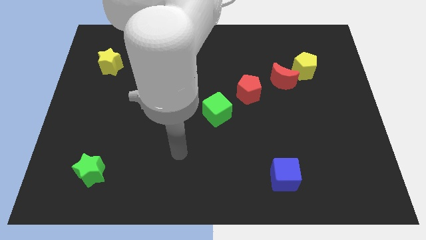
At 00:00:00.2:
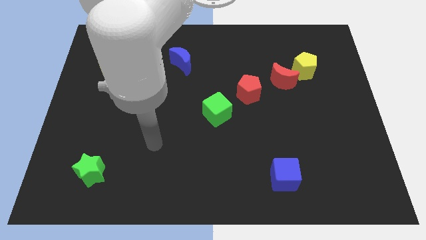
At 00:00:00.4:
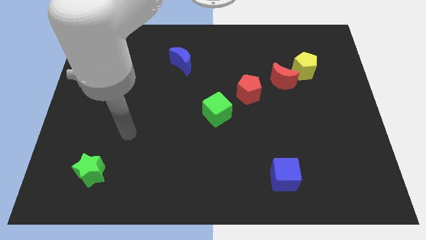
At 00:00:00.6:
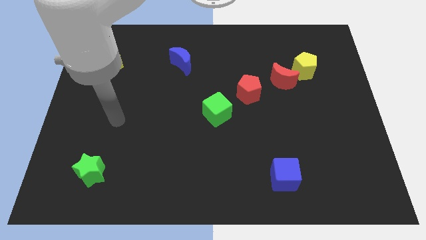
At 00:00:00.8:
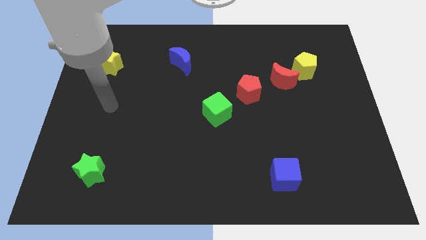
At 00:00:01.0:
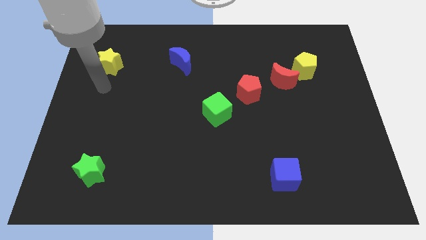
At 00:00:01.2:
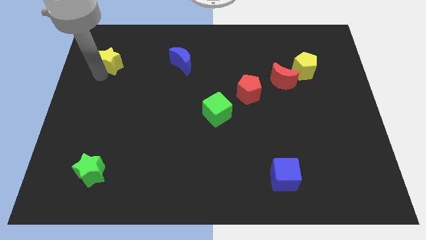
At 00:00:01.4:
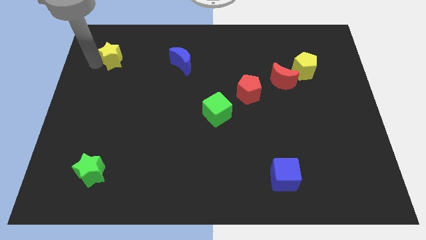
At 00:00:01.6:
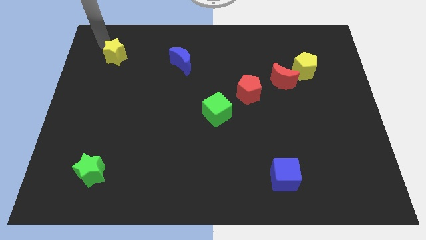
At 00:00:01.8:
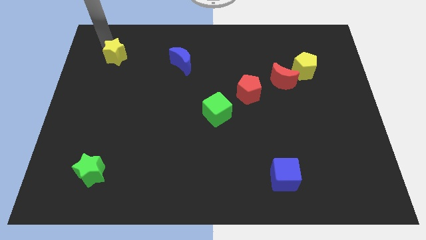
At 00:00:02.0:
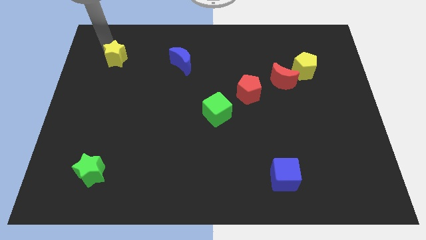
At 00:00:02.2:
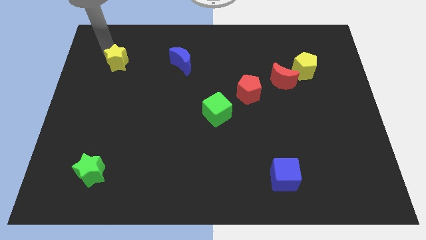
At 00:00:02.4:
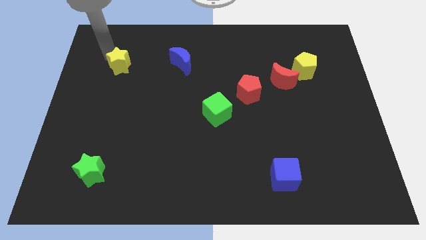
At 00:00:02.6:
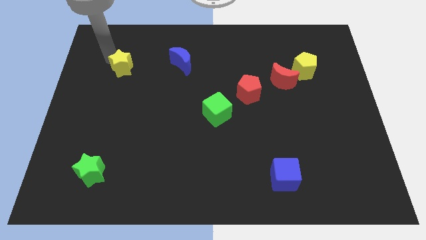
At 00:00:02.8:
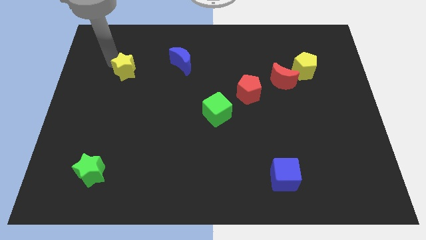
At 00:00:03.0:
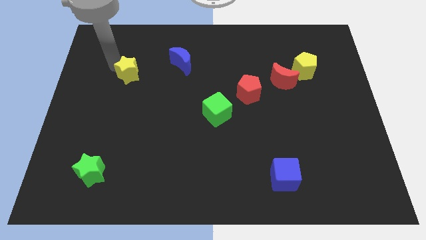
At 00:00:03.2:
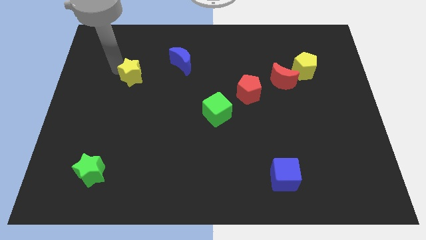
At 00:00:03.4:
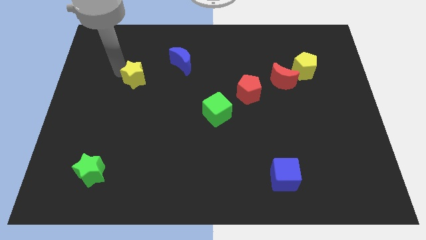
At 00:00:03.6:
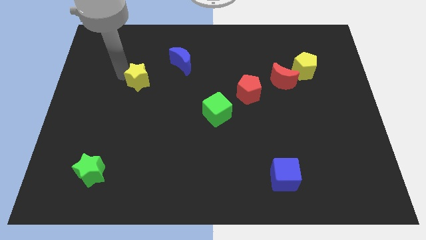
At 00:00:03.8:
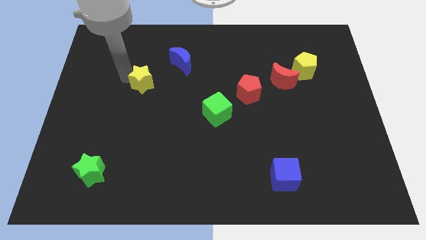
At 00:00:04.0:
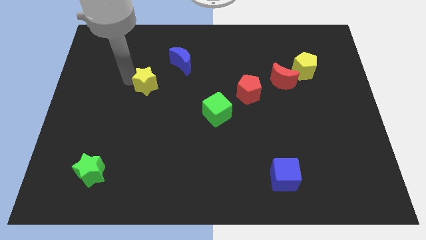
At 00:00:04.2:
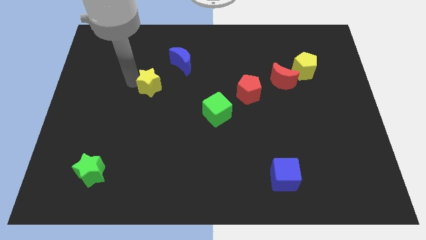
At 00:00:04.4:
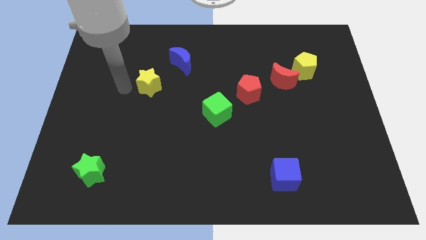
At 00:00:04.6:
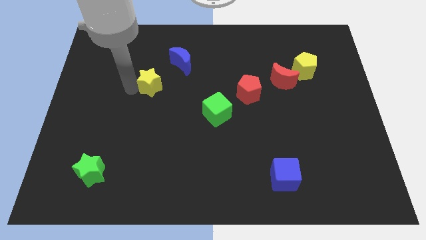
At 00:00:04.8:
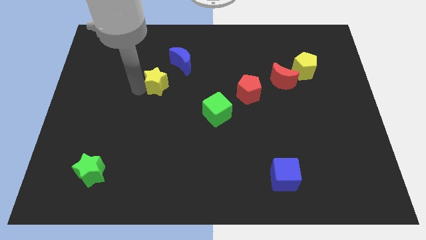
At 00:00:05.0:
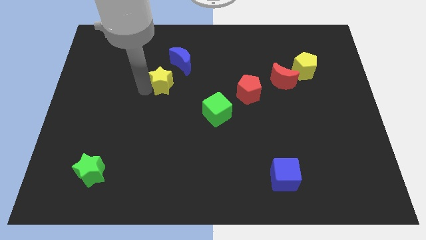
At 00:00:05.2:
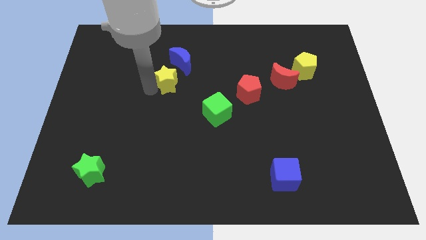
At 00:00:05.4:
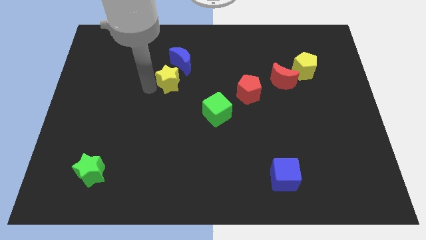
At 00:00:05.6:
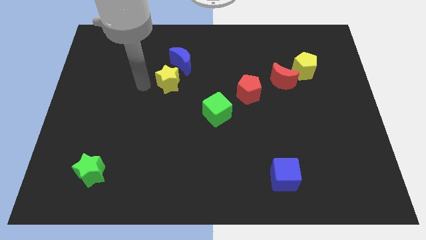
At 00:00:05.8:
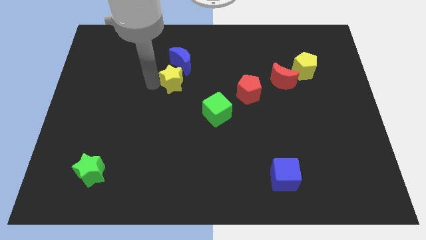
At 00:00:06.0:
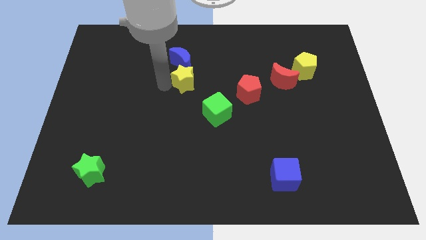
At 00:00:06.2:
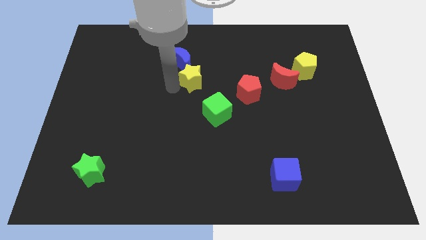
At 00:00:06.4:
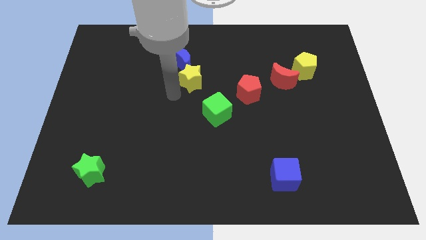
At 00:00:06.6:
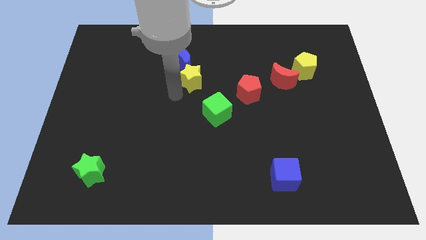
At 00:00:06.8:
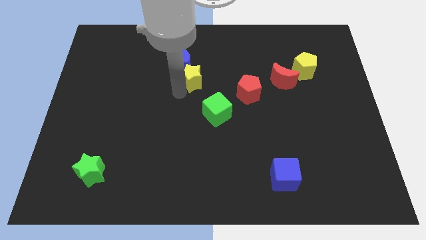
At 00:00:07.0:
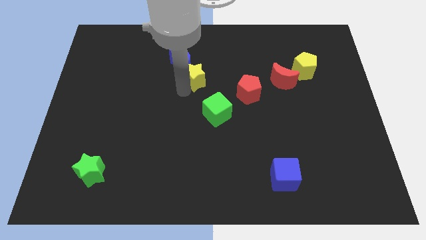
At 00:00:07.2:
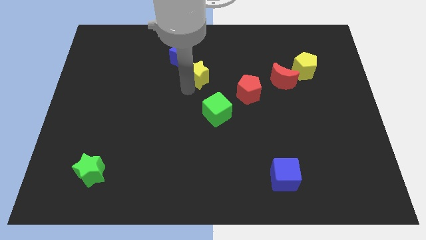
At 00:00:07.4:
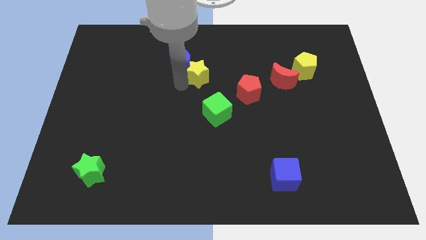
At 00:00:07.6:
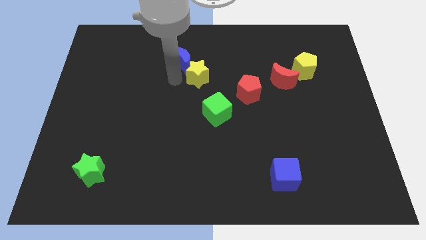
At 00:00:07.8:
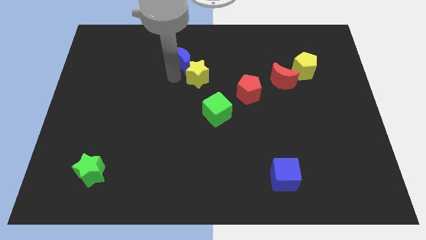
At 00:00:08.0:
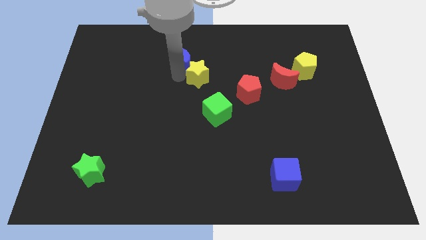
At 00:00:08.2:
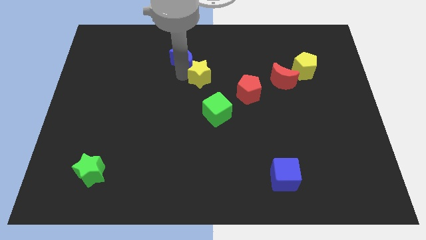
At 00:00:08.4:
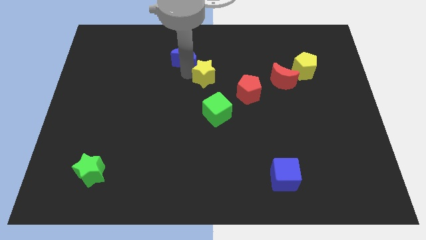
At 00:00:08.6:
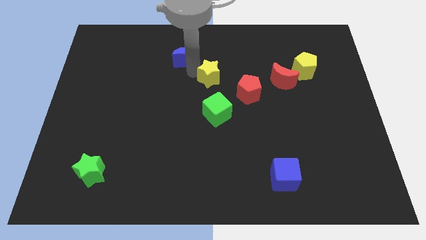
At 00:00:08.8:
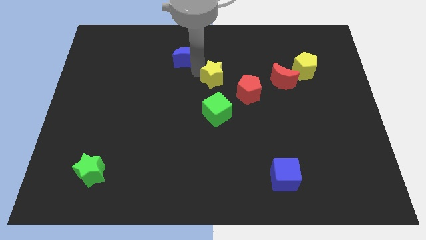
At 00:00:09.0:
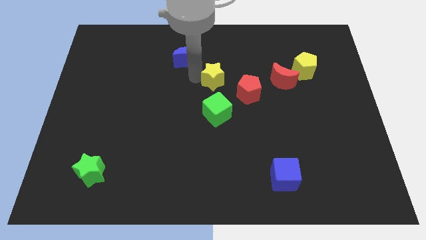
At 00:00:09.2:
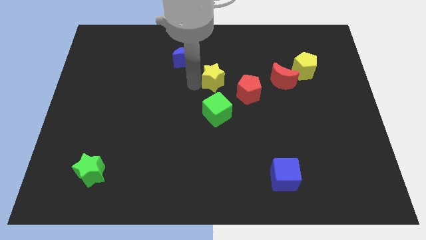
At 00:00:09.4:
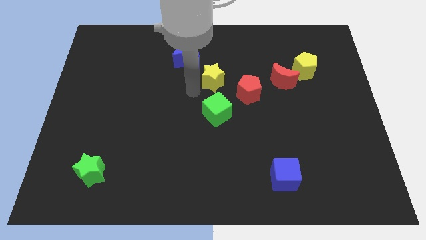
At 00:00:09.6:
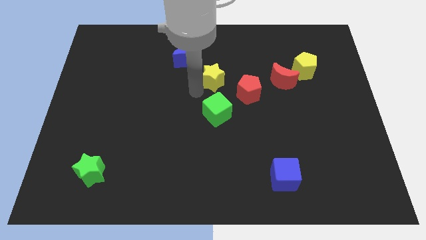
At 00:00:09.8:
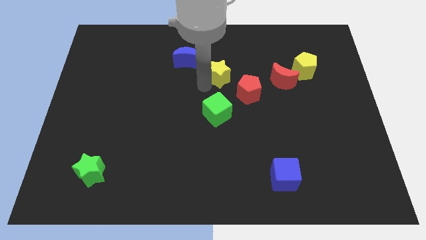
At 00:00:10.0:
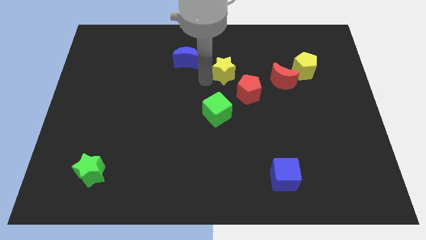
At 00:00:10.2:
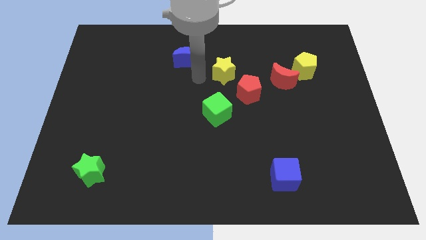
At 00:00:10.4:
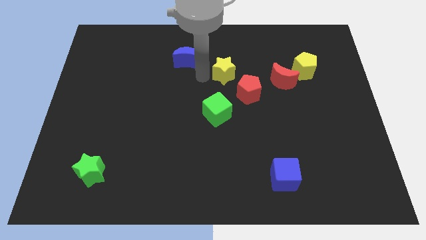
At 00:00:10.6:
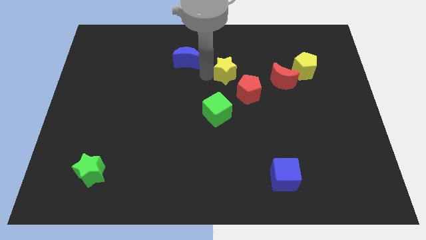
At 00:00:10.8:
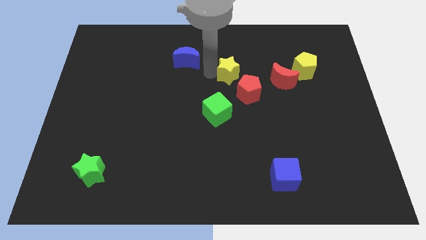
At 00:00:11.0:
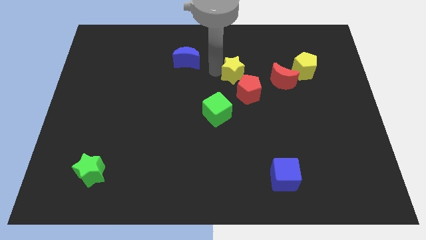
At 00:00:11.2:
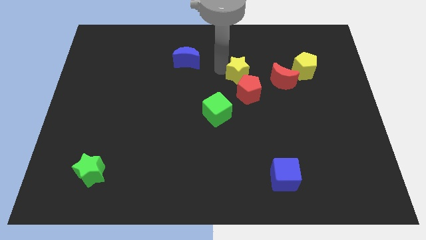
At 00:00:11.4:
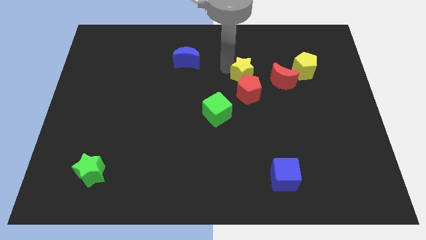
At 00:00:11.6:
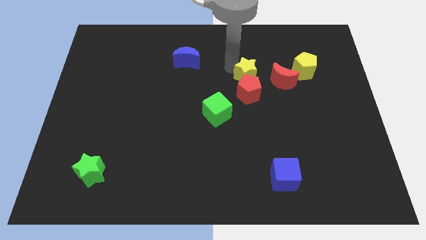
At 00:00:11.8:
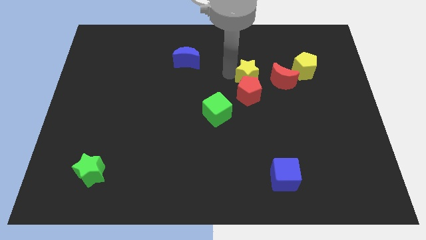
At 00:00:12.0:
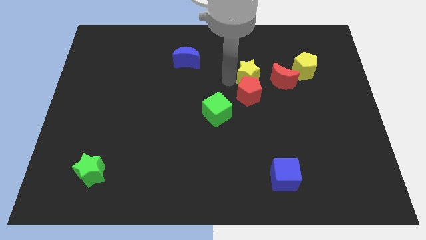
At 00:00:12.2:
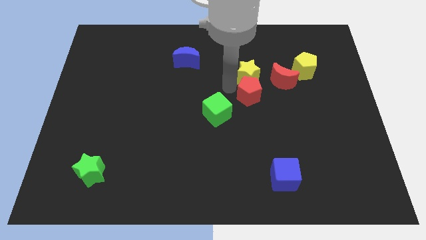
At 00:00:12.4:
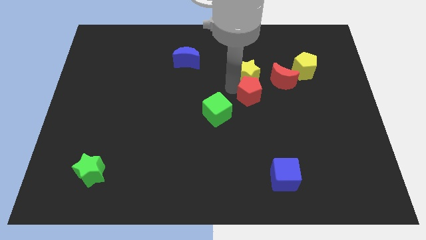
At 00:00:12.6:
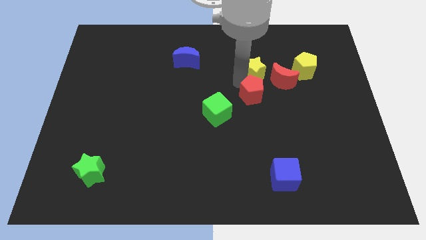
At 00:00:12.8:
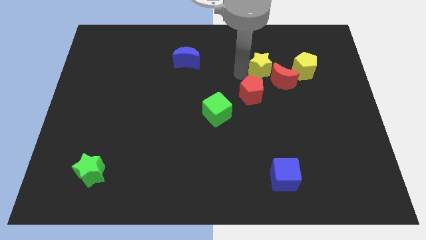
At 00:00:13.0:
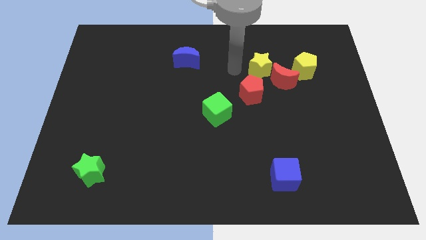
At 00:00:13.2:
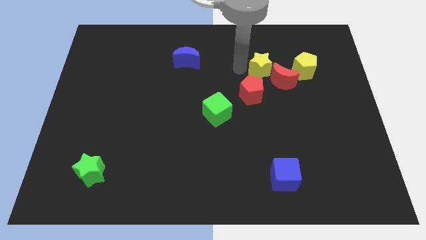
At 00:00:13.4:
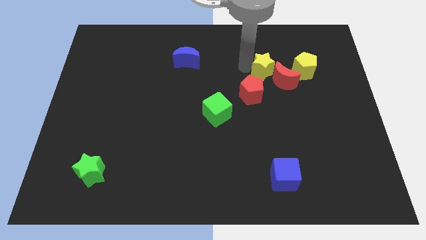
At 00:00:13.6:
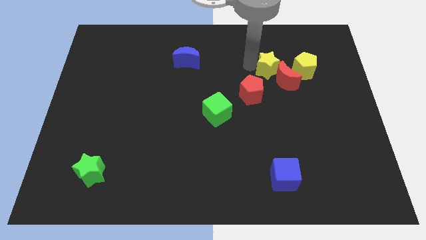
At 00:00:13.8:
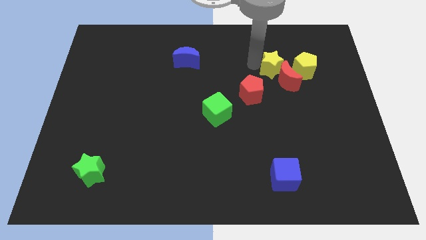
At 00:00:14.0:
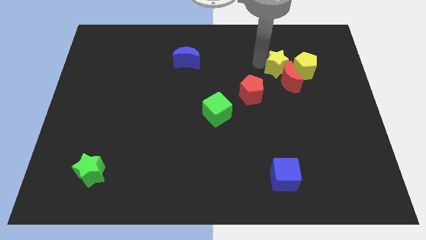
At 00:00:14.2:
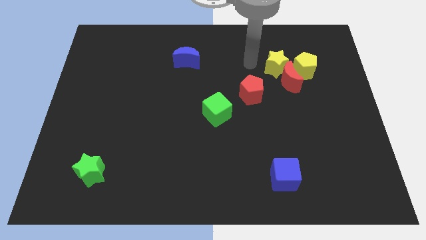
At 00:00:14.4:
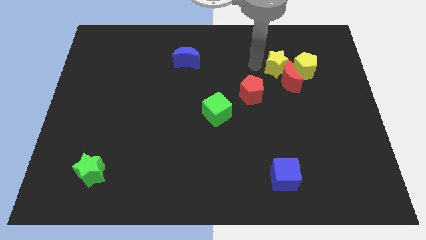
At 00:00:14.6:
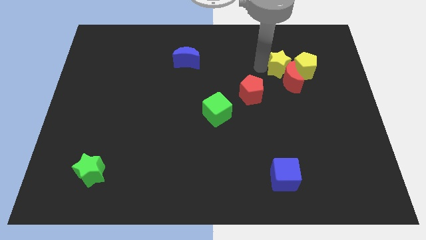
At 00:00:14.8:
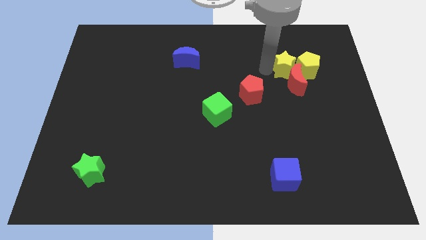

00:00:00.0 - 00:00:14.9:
push the yellow star next to the yellow pentagon
